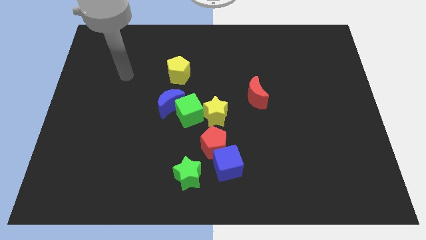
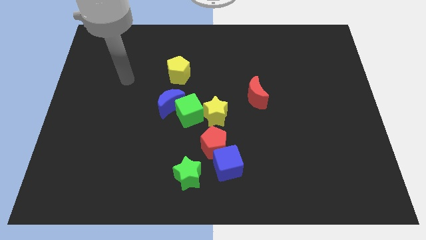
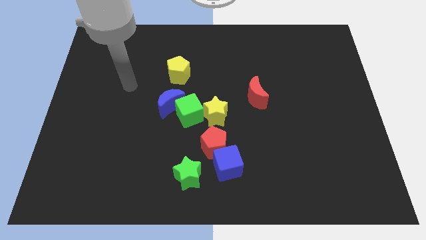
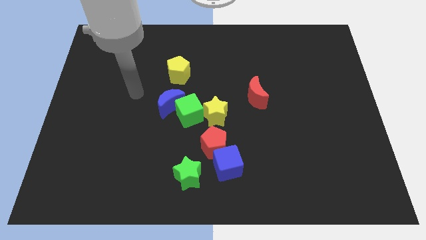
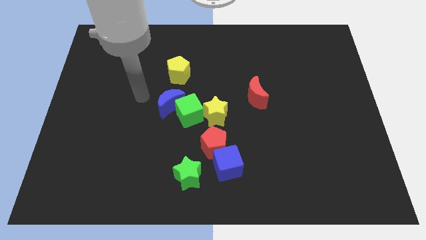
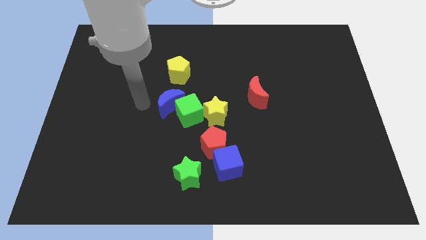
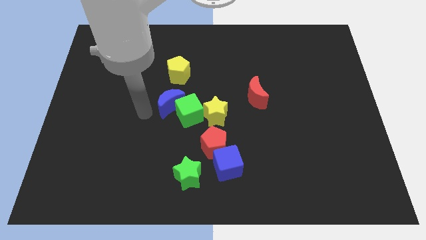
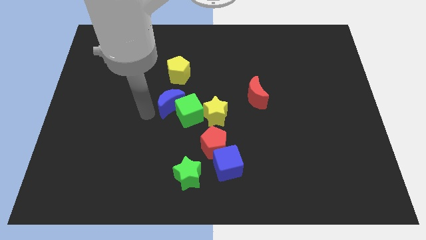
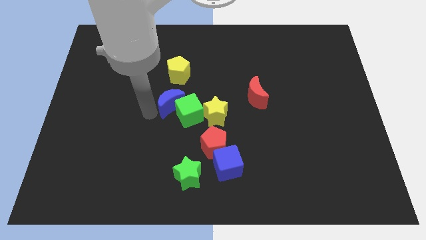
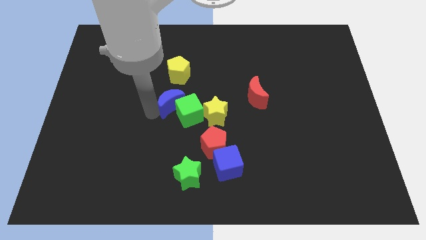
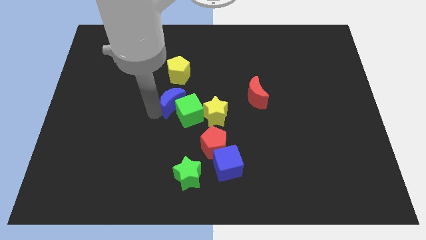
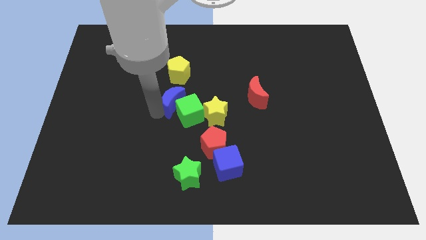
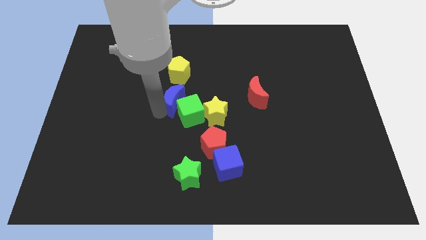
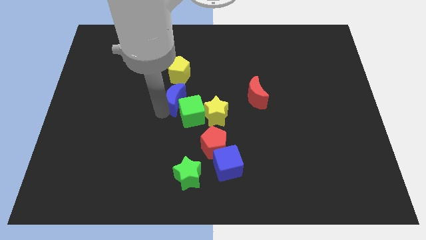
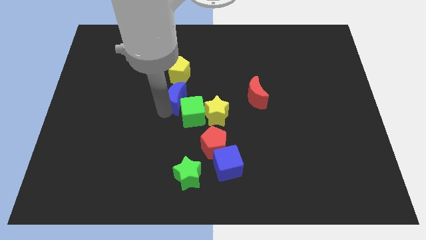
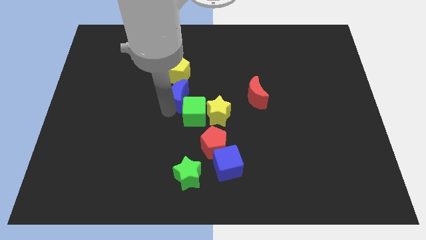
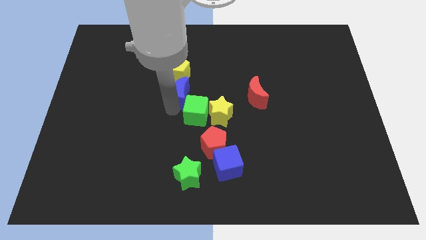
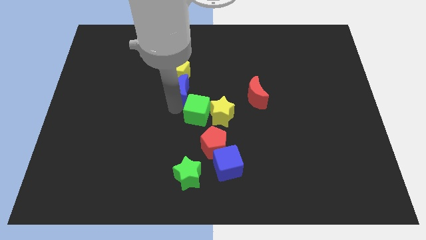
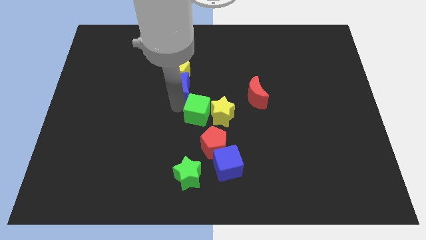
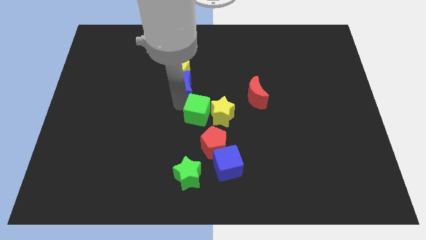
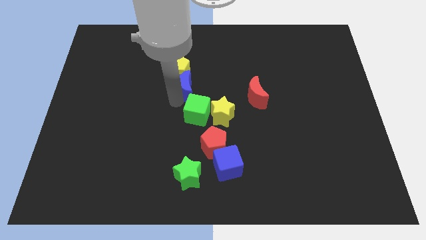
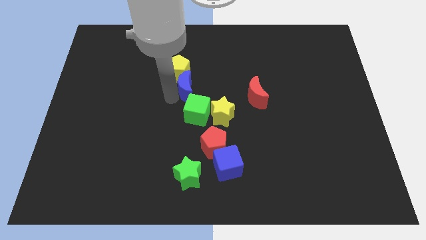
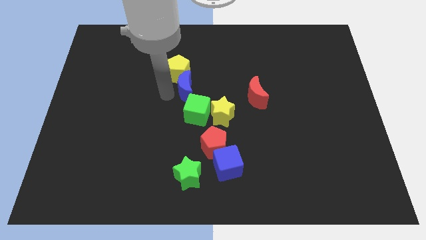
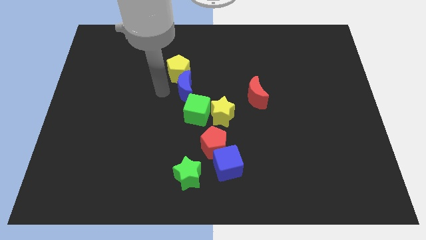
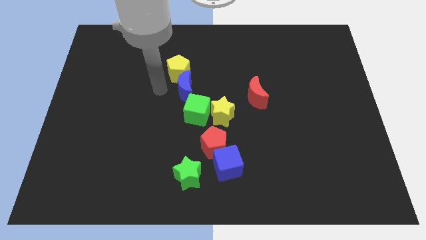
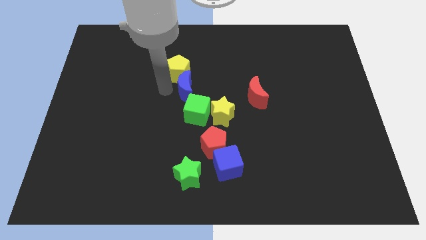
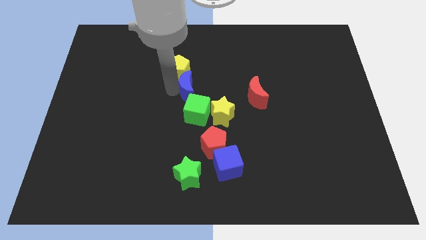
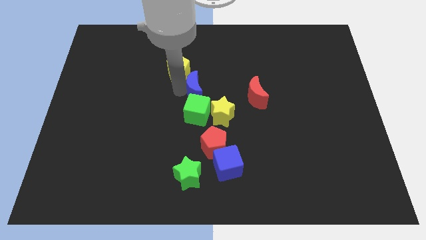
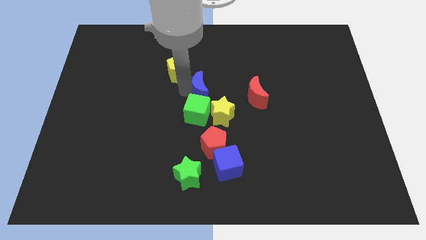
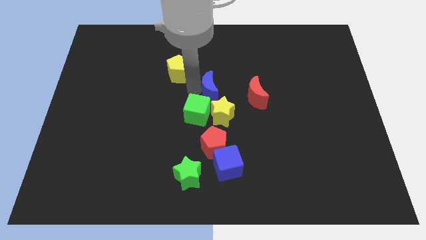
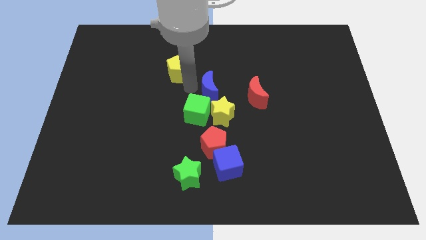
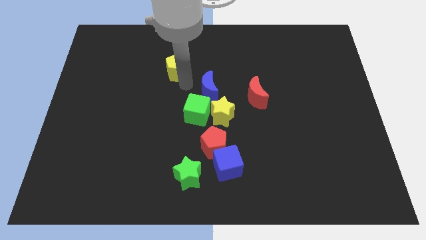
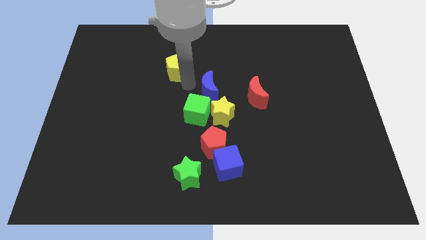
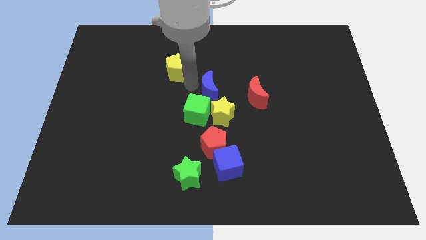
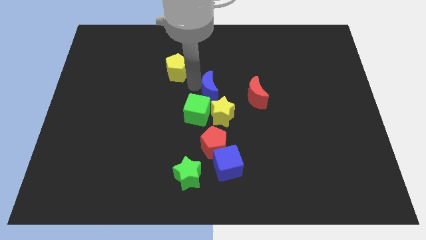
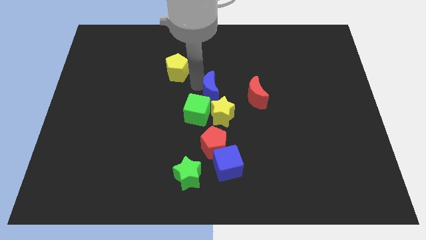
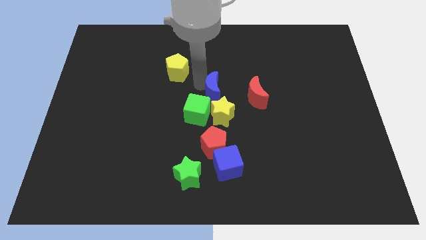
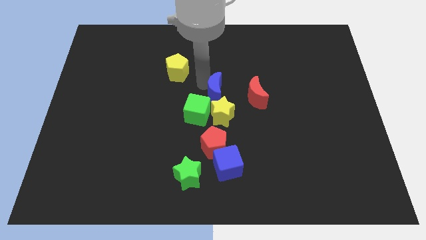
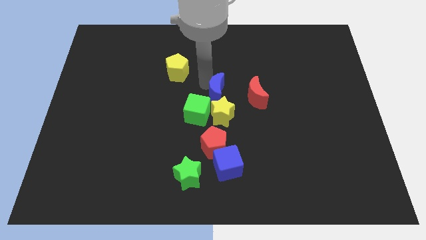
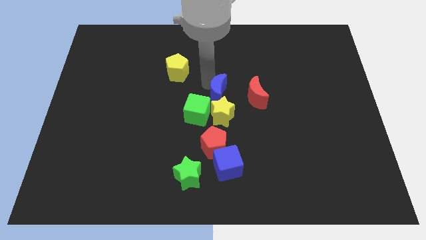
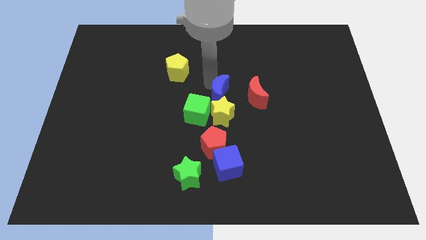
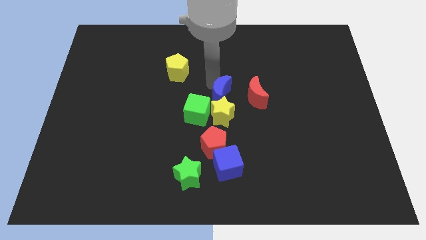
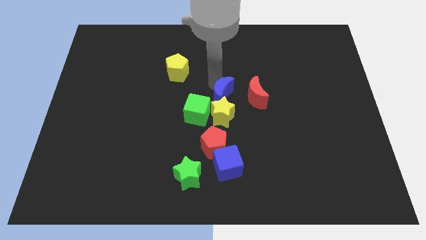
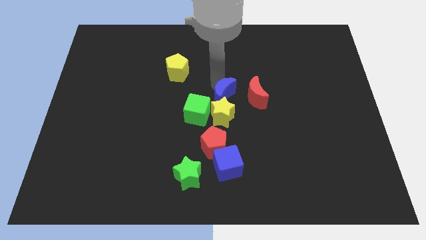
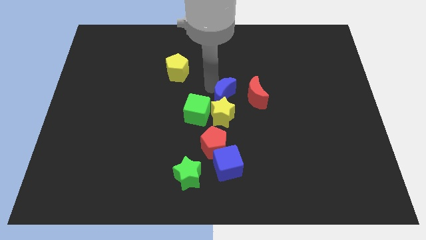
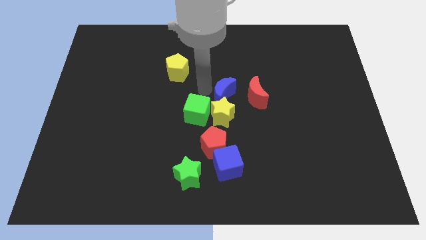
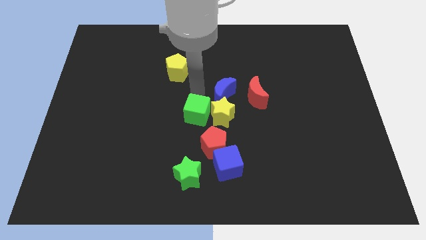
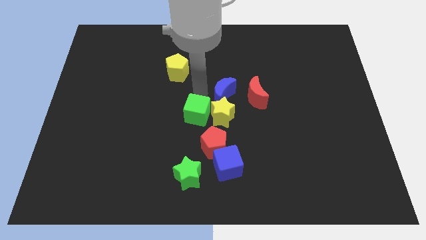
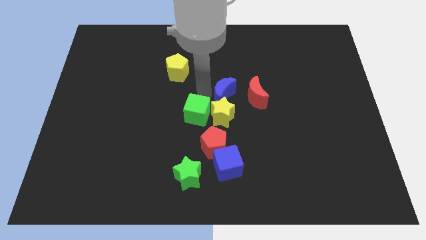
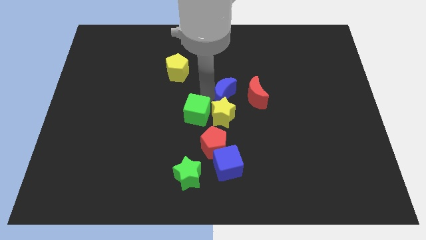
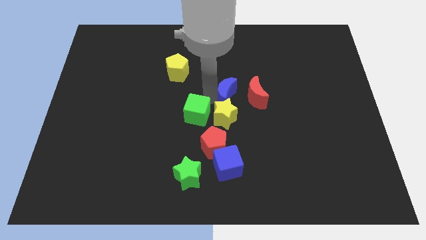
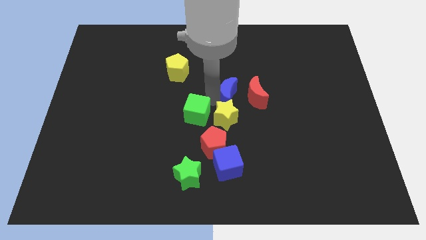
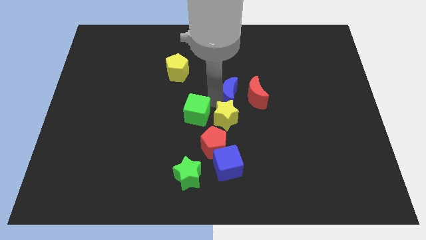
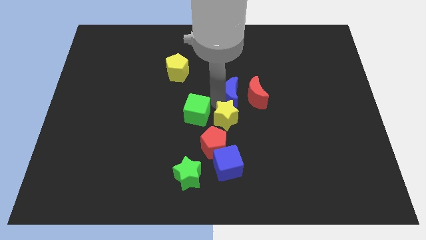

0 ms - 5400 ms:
slide the blue moon close to the red moon

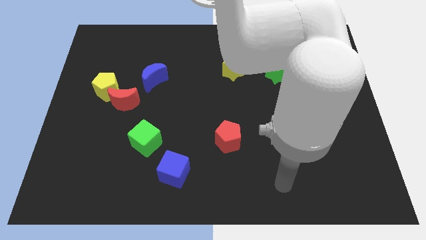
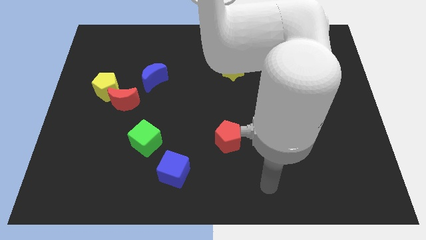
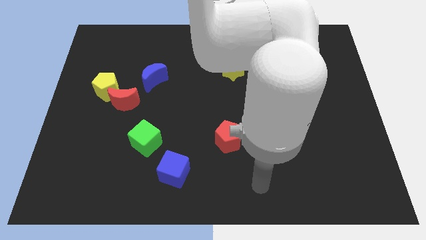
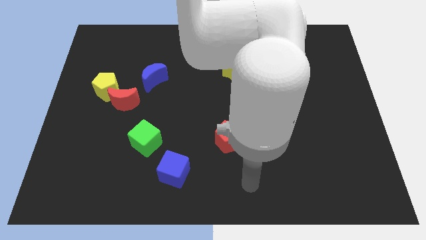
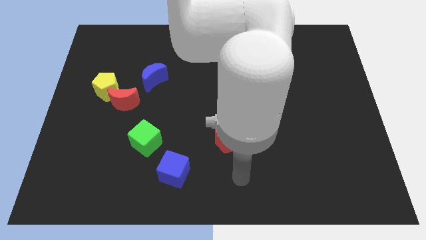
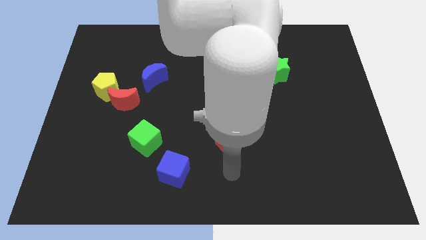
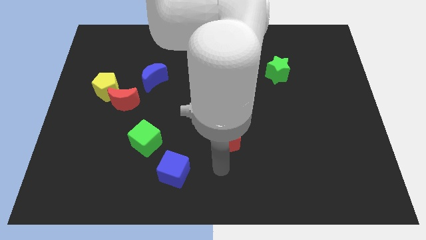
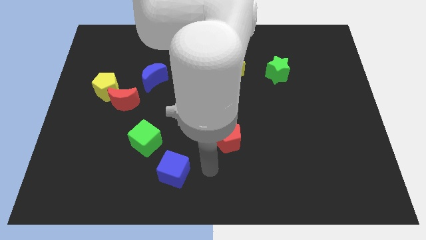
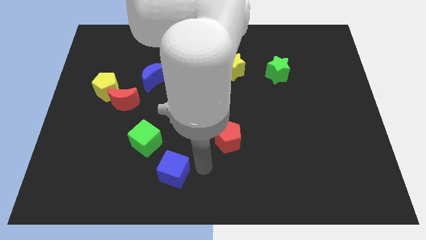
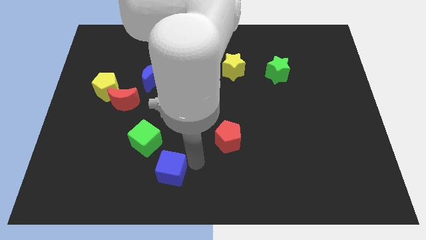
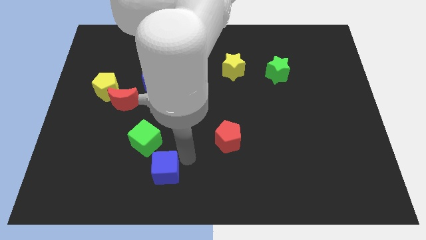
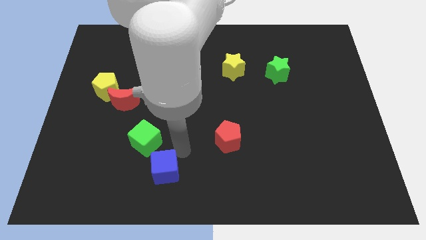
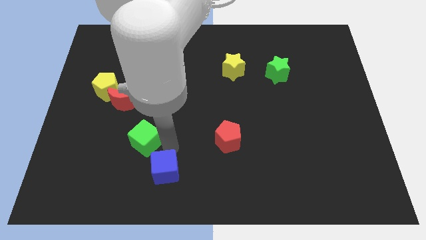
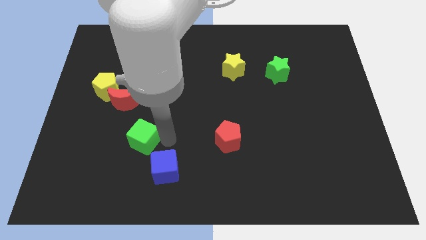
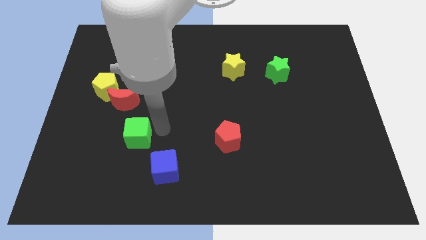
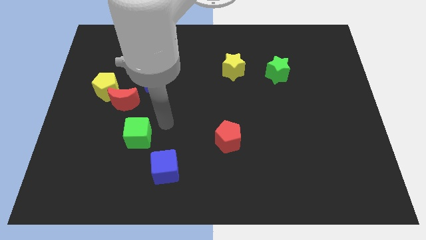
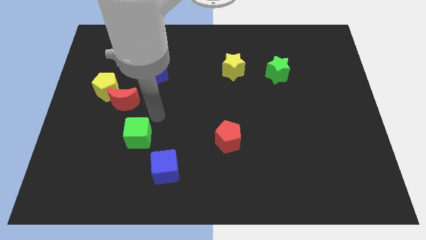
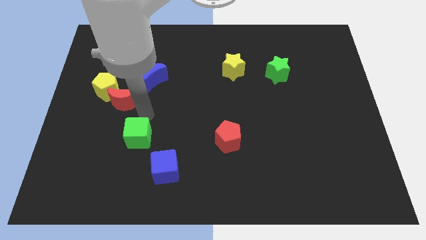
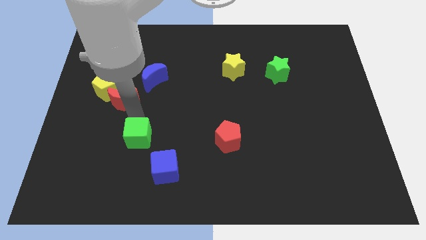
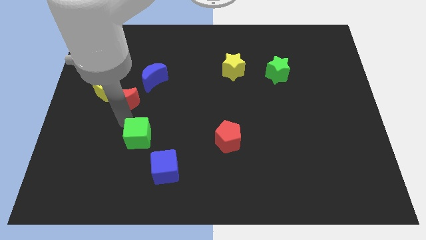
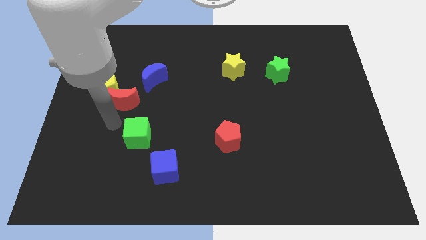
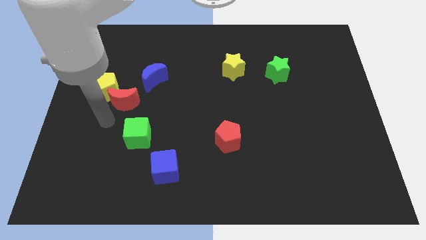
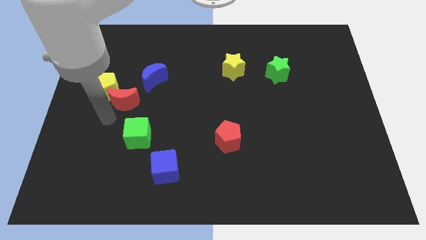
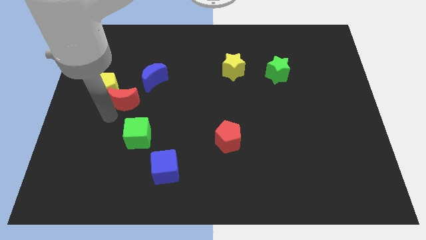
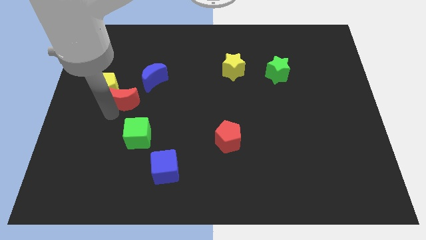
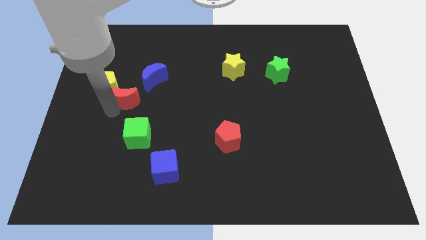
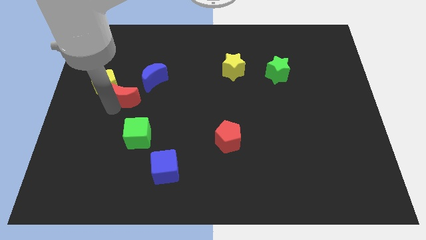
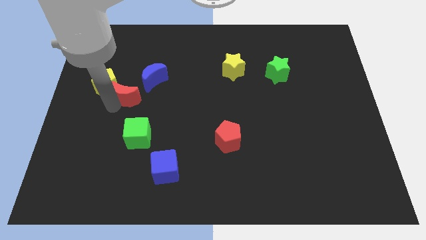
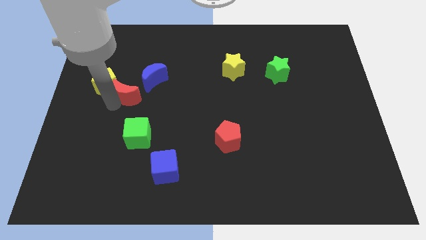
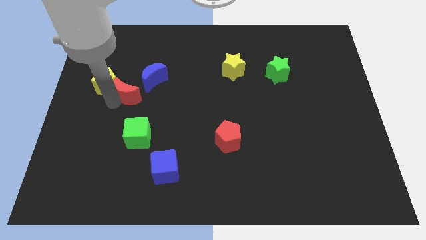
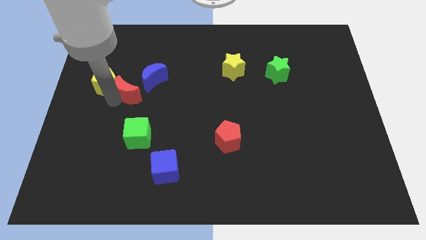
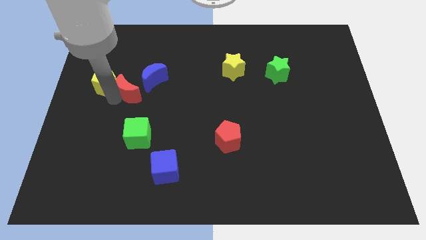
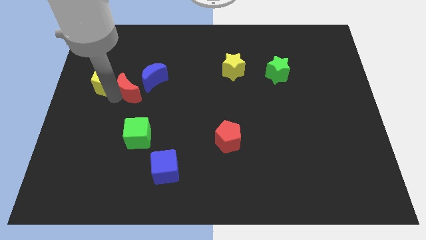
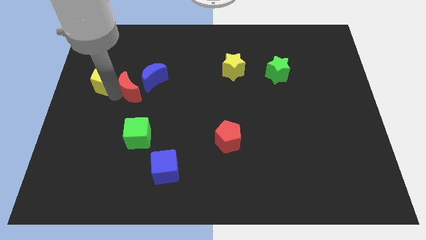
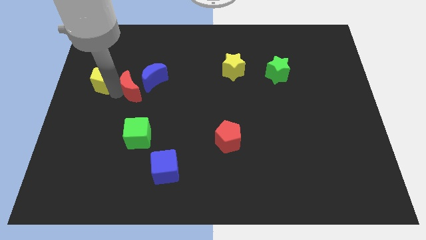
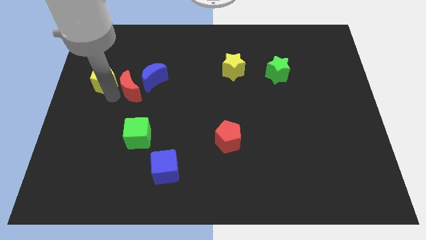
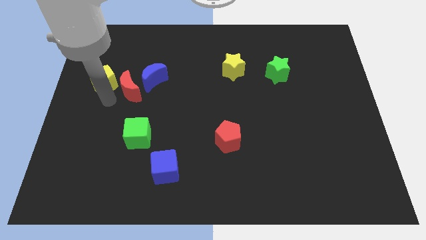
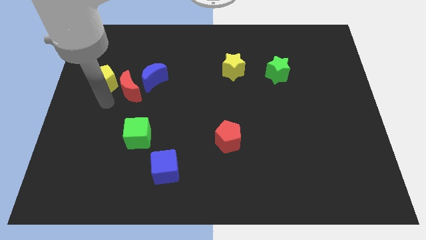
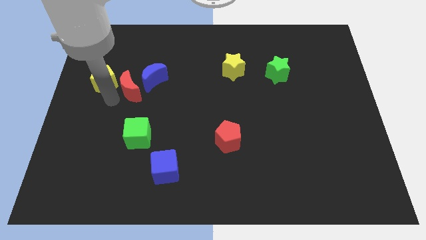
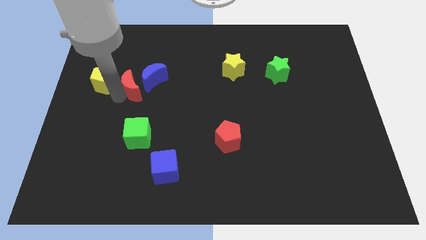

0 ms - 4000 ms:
put the red moon close to the blue moon
